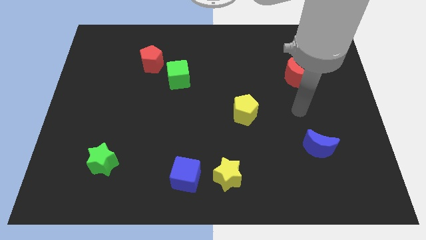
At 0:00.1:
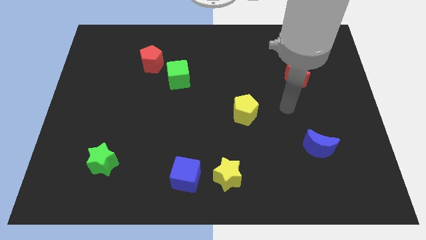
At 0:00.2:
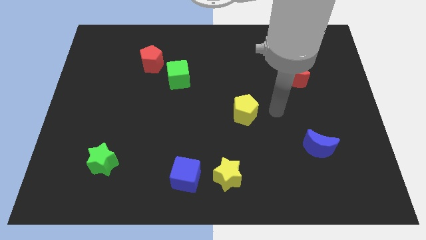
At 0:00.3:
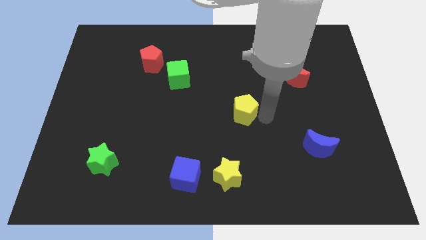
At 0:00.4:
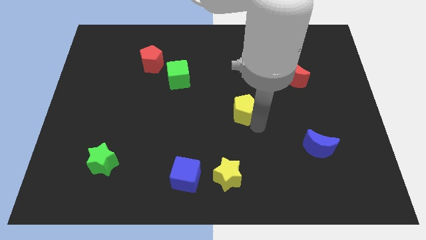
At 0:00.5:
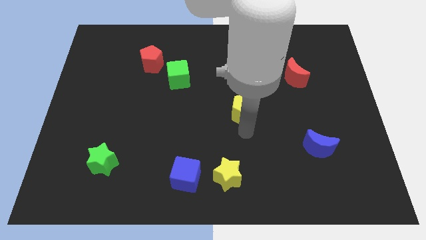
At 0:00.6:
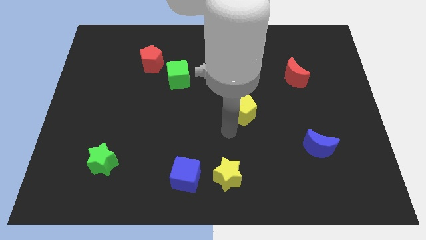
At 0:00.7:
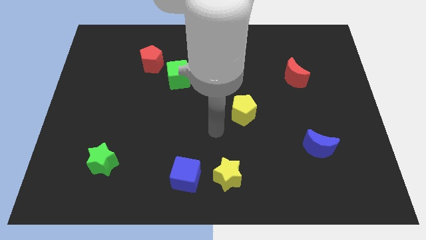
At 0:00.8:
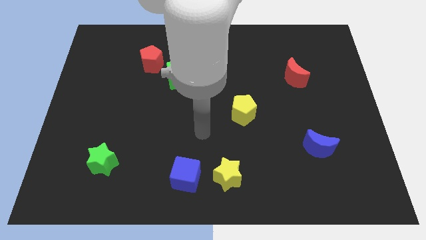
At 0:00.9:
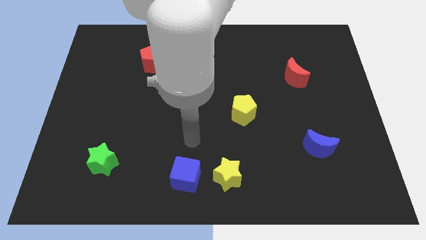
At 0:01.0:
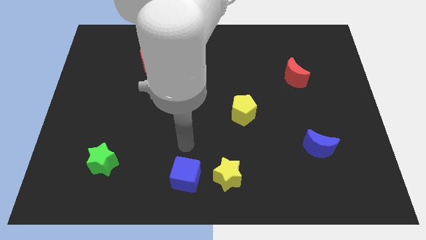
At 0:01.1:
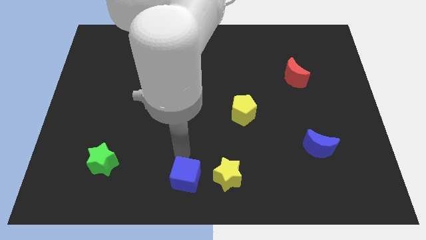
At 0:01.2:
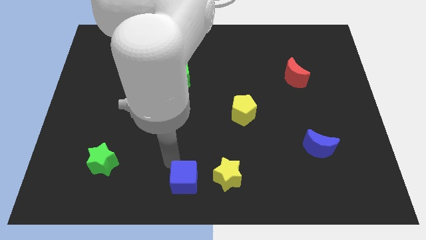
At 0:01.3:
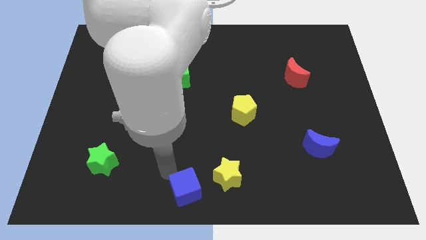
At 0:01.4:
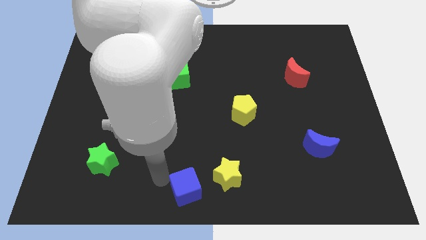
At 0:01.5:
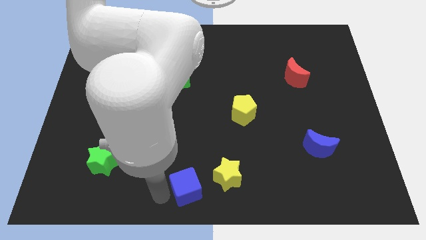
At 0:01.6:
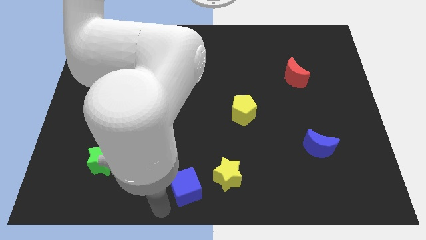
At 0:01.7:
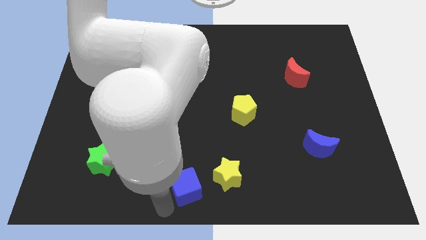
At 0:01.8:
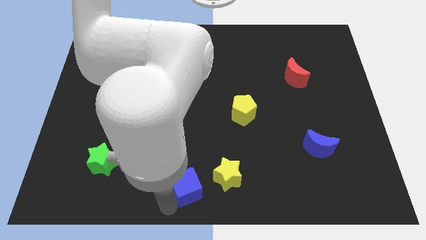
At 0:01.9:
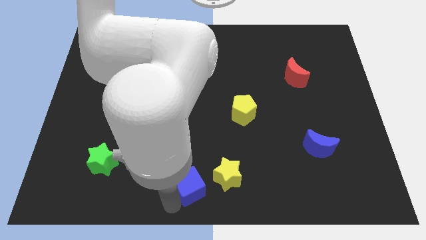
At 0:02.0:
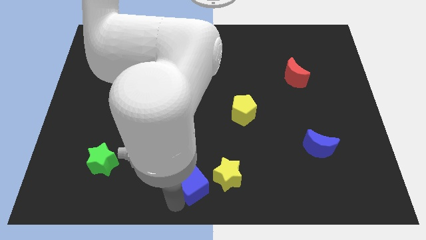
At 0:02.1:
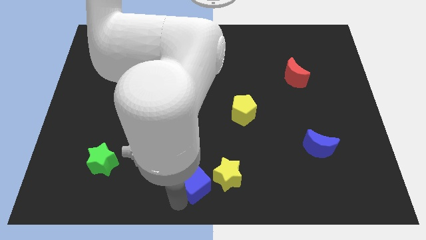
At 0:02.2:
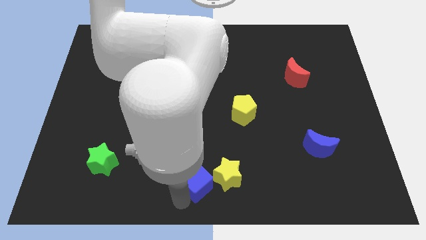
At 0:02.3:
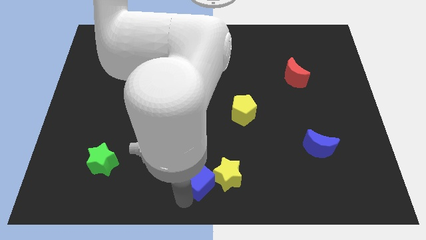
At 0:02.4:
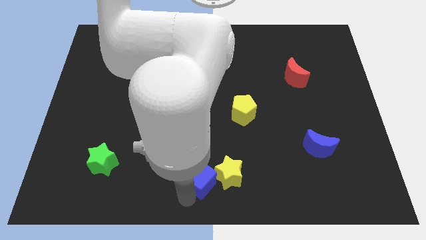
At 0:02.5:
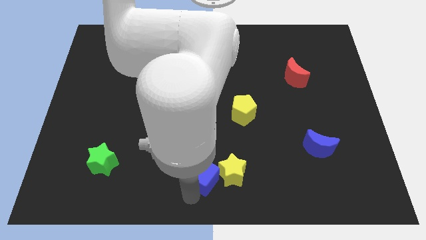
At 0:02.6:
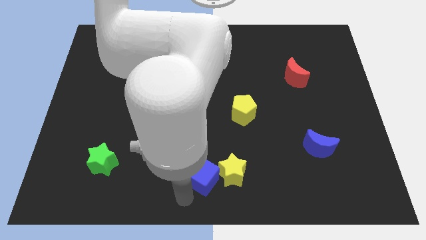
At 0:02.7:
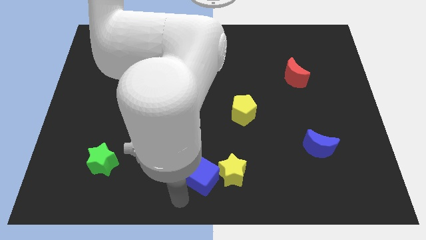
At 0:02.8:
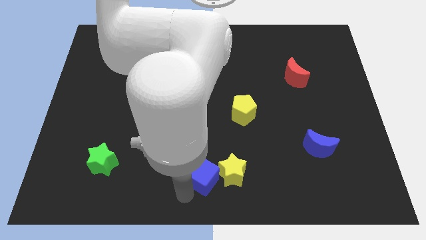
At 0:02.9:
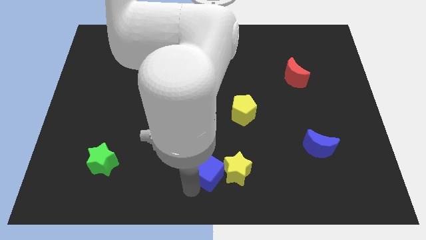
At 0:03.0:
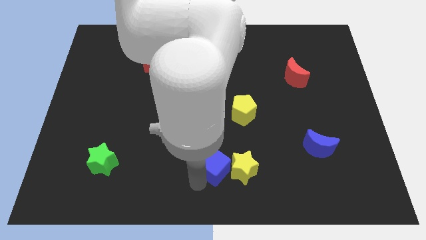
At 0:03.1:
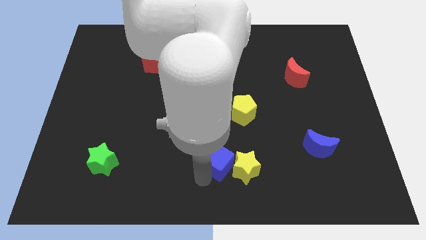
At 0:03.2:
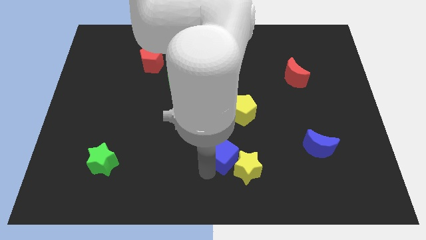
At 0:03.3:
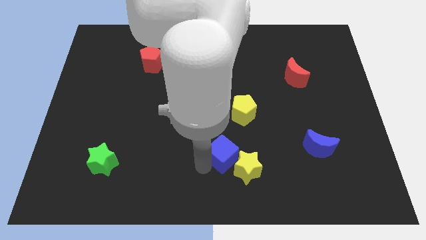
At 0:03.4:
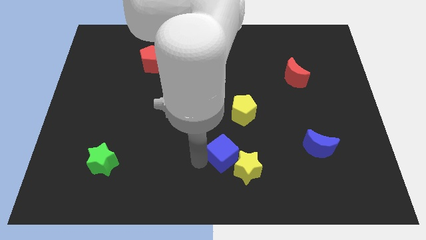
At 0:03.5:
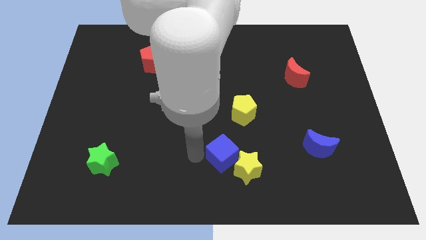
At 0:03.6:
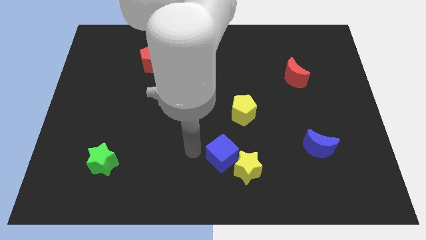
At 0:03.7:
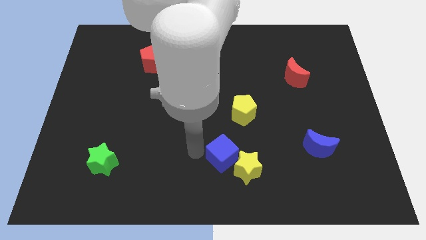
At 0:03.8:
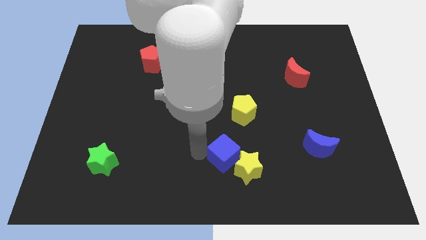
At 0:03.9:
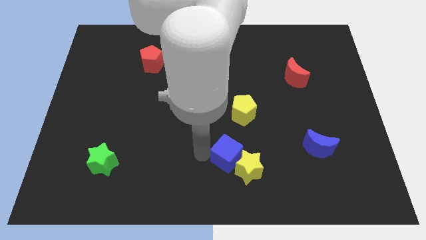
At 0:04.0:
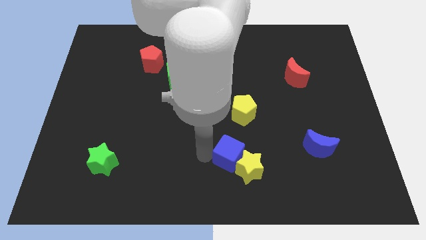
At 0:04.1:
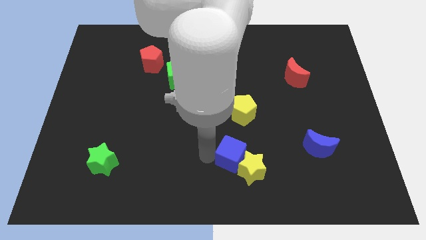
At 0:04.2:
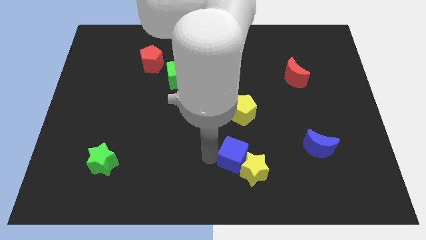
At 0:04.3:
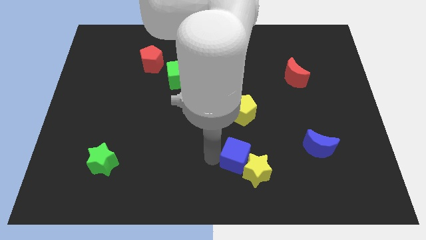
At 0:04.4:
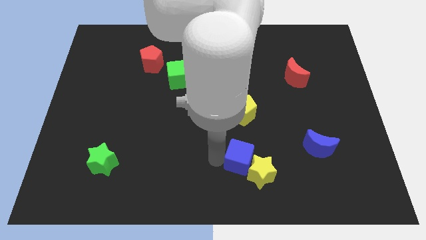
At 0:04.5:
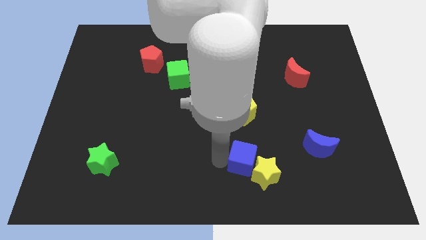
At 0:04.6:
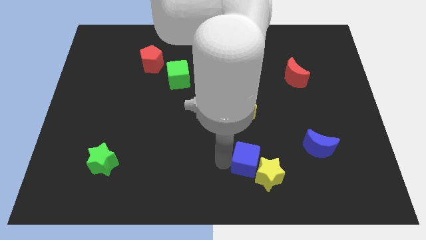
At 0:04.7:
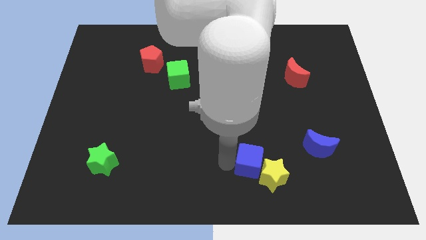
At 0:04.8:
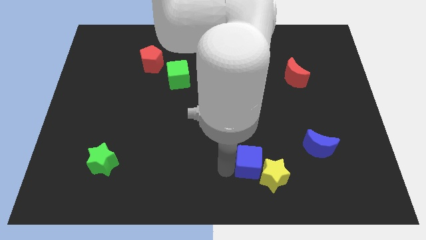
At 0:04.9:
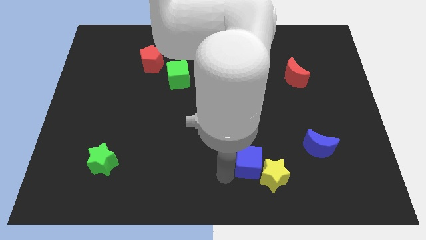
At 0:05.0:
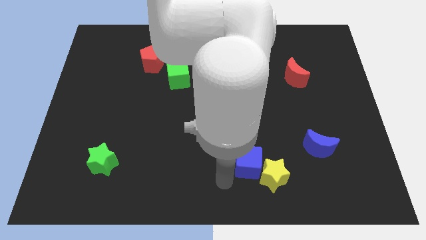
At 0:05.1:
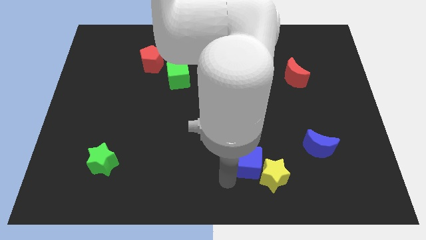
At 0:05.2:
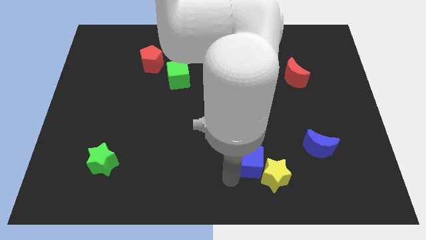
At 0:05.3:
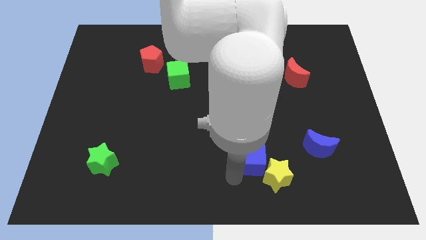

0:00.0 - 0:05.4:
slide the blue cube just left of the blue moon

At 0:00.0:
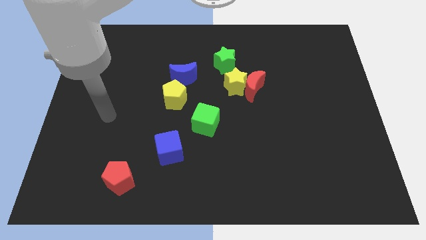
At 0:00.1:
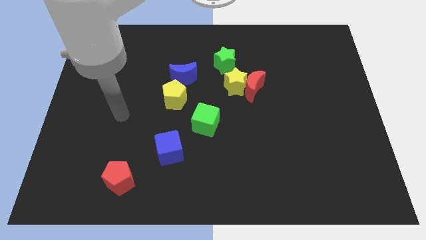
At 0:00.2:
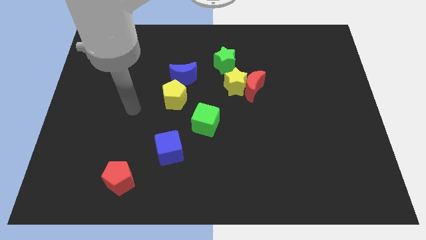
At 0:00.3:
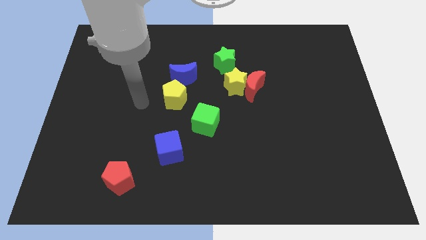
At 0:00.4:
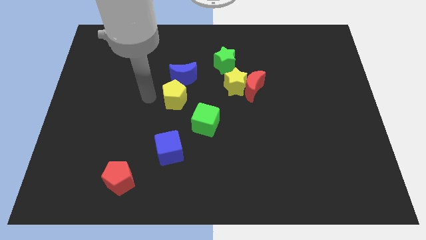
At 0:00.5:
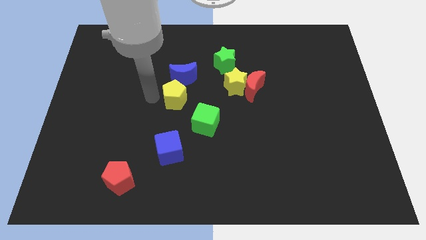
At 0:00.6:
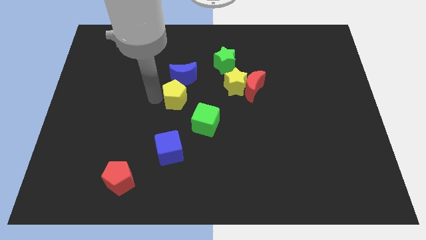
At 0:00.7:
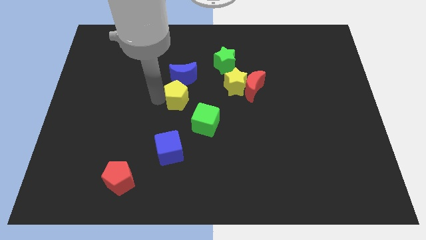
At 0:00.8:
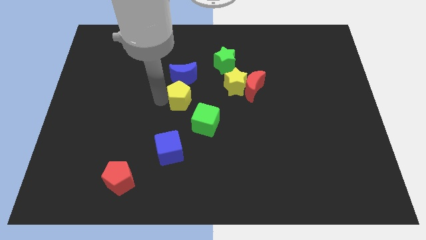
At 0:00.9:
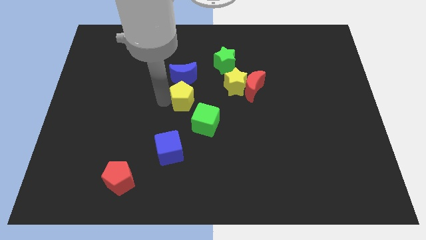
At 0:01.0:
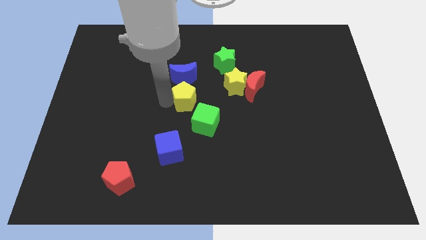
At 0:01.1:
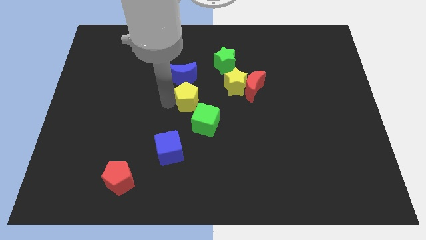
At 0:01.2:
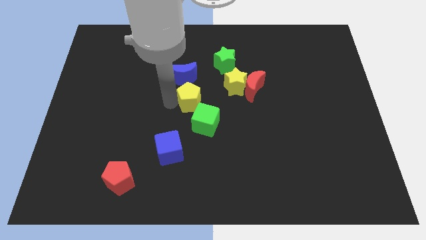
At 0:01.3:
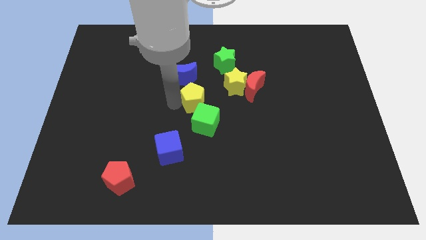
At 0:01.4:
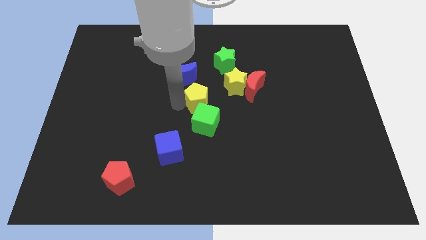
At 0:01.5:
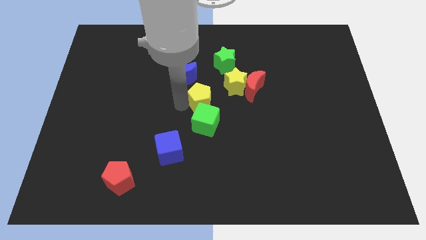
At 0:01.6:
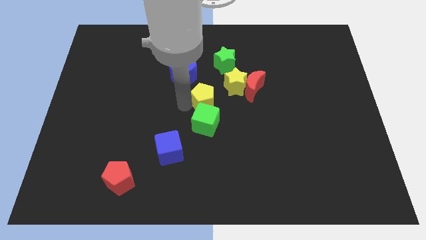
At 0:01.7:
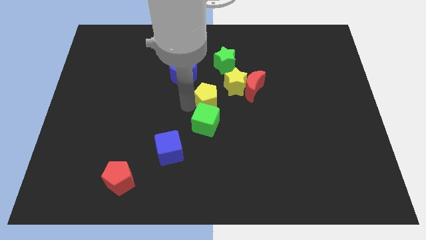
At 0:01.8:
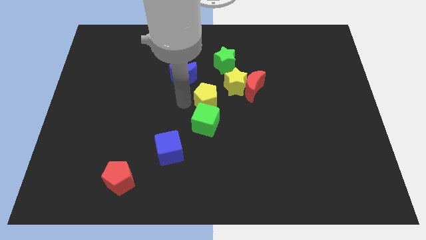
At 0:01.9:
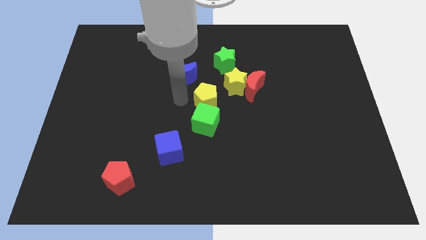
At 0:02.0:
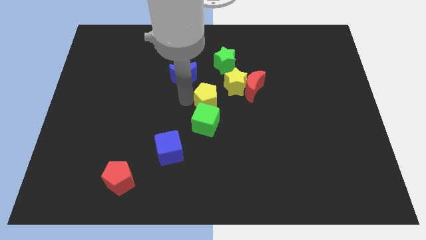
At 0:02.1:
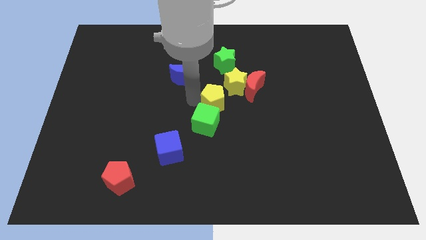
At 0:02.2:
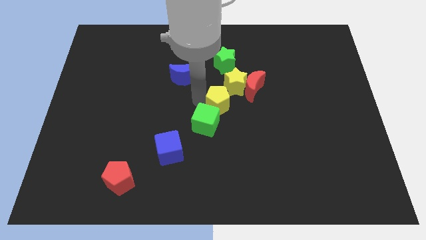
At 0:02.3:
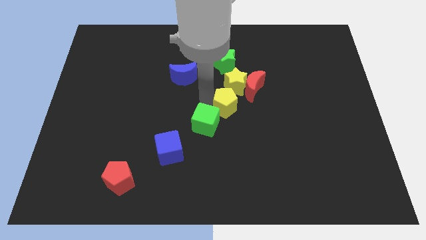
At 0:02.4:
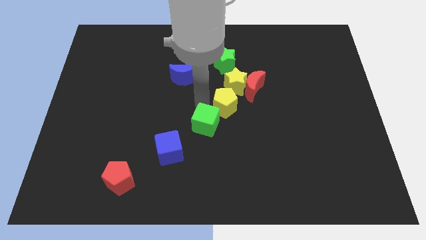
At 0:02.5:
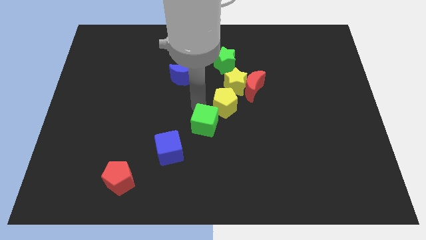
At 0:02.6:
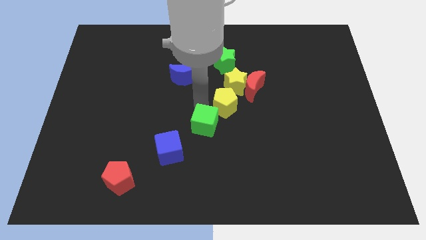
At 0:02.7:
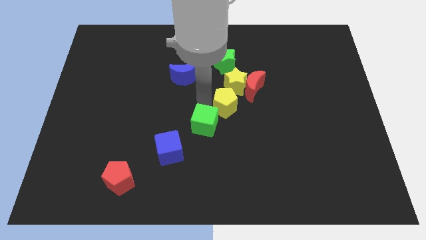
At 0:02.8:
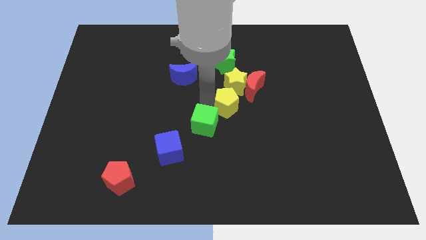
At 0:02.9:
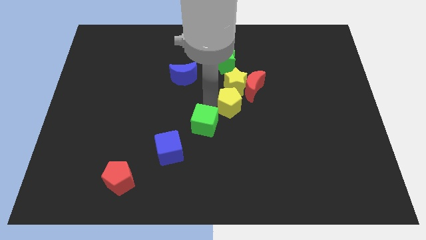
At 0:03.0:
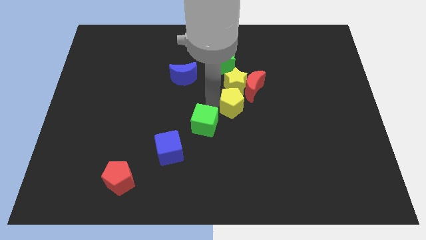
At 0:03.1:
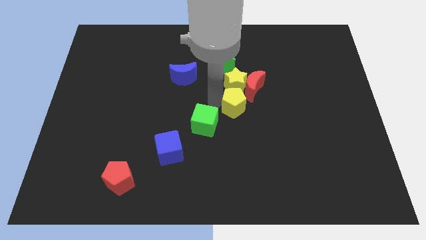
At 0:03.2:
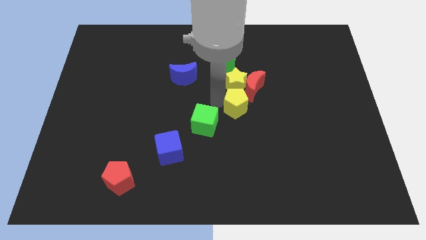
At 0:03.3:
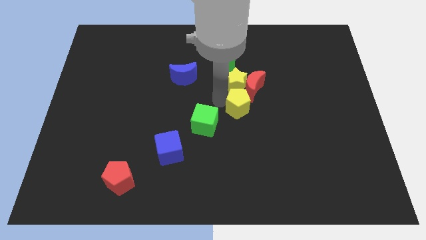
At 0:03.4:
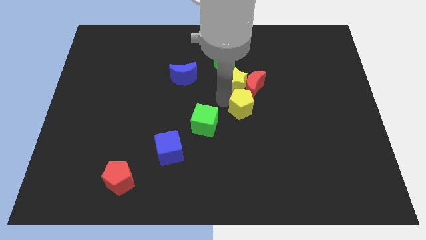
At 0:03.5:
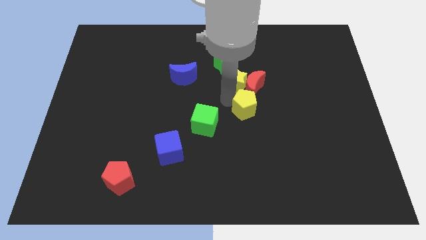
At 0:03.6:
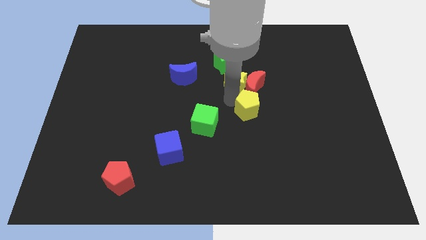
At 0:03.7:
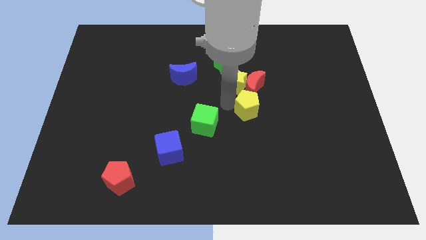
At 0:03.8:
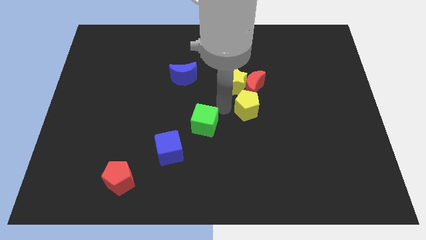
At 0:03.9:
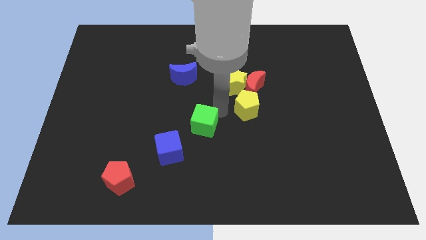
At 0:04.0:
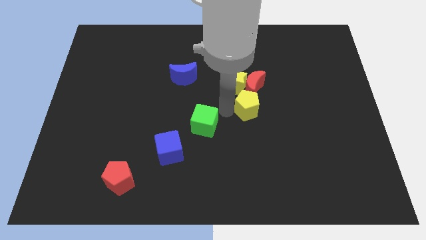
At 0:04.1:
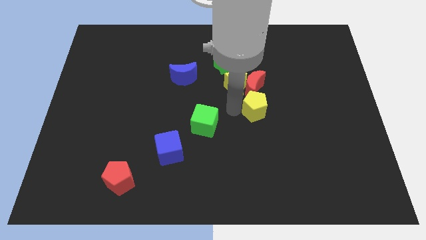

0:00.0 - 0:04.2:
push the yellow pentagon diagonally down and to the right of the red moon
